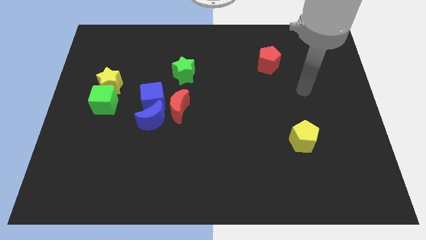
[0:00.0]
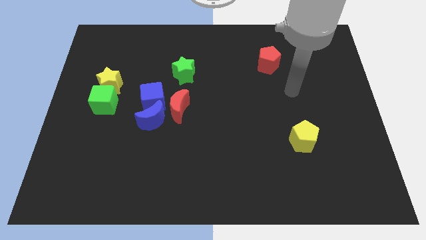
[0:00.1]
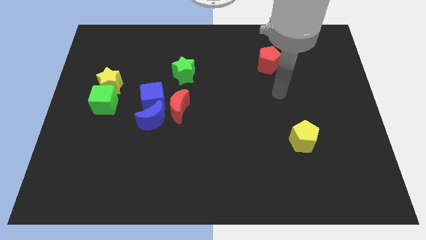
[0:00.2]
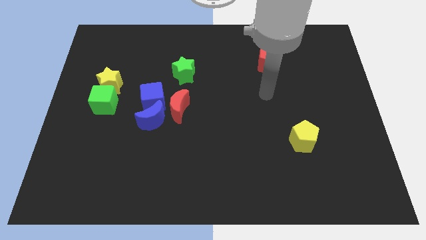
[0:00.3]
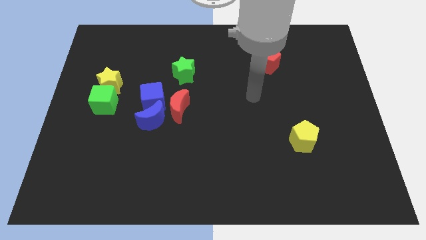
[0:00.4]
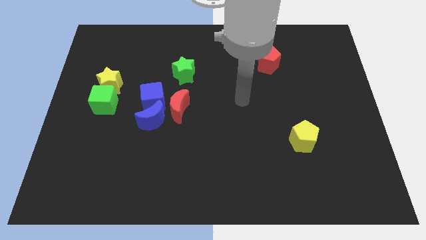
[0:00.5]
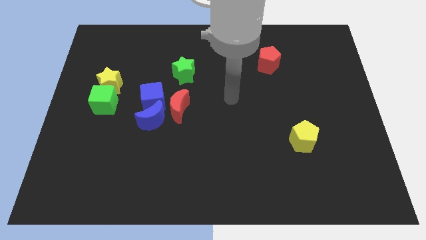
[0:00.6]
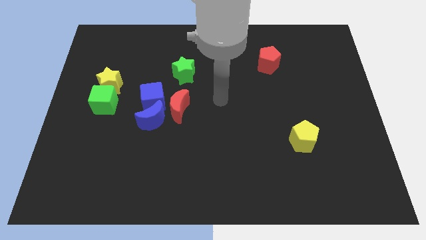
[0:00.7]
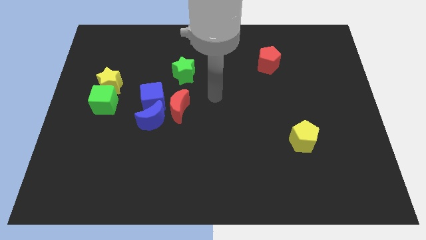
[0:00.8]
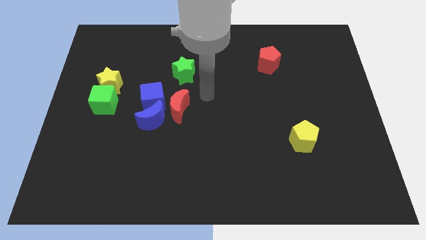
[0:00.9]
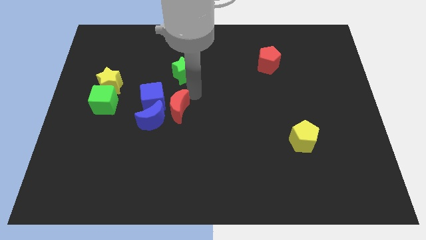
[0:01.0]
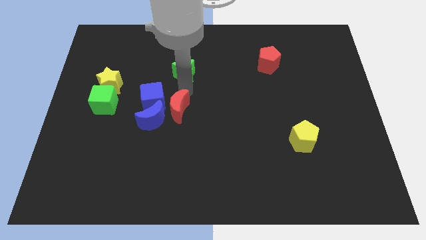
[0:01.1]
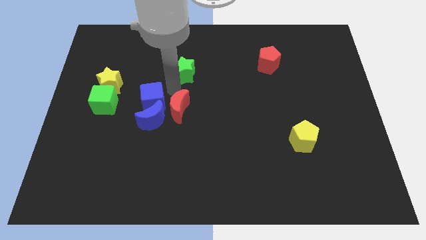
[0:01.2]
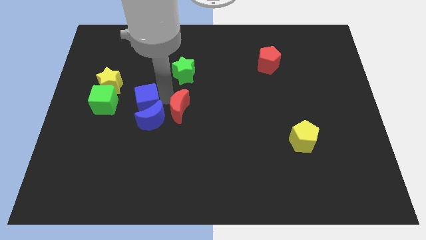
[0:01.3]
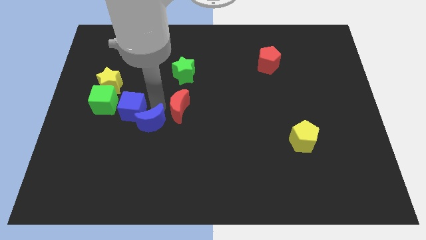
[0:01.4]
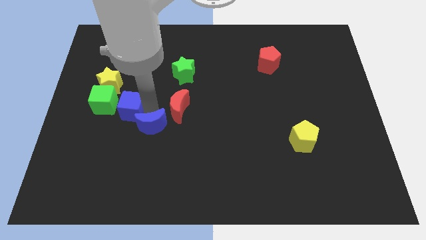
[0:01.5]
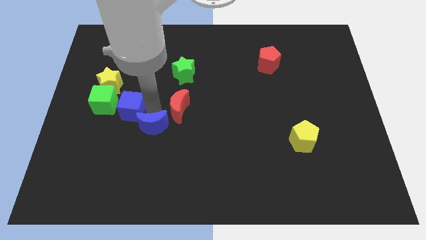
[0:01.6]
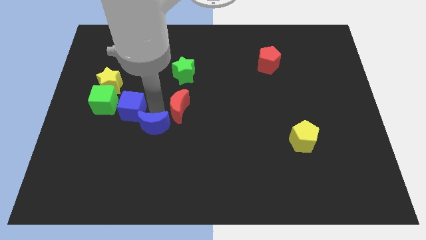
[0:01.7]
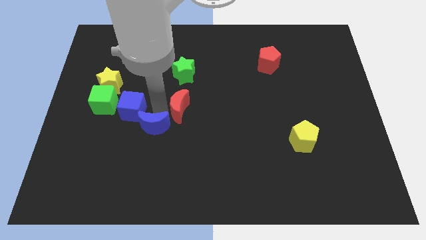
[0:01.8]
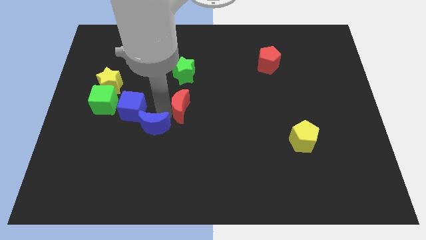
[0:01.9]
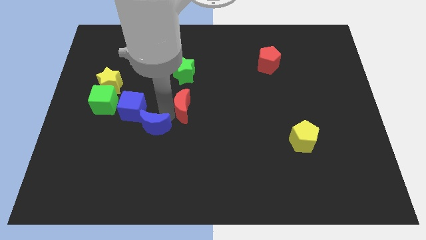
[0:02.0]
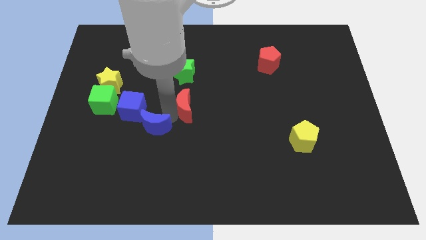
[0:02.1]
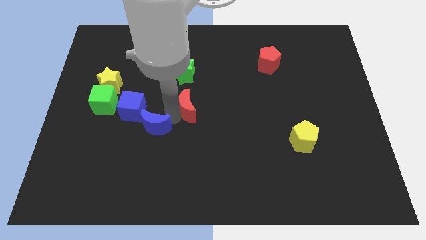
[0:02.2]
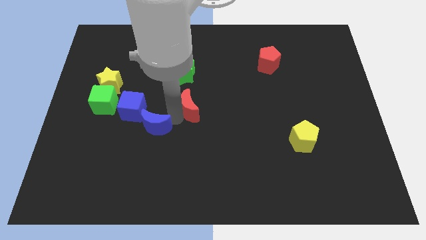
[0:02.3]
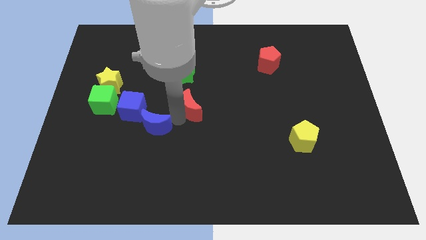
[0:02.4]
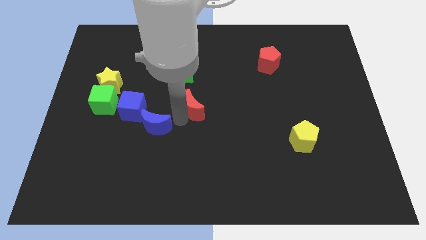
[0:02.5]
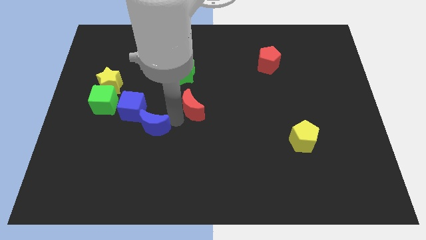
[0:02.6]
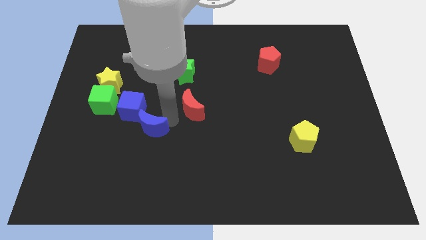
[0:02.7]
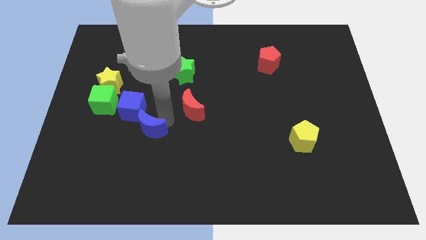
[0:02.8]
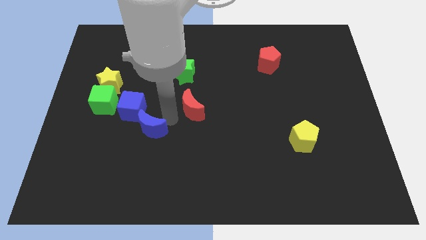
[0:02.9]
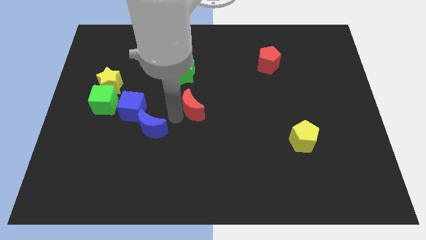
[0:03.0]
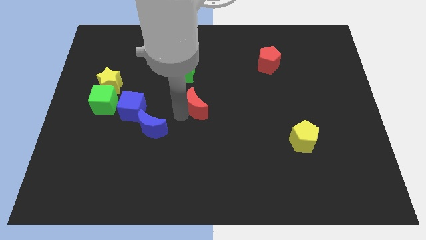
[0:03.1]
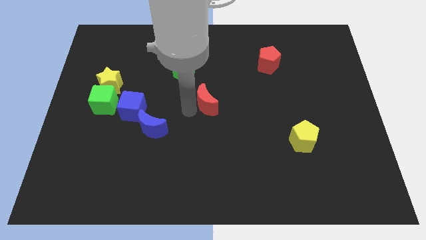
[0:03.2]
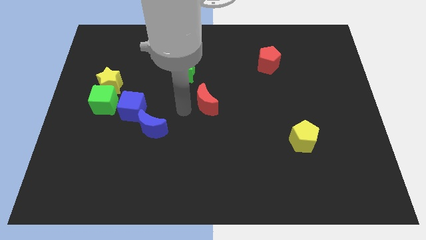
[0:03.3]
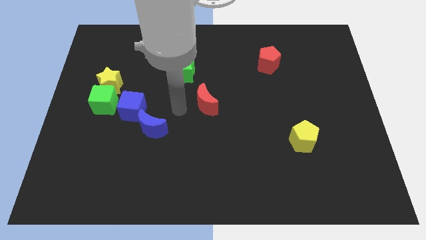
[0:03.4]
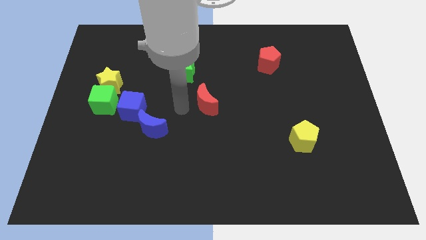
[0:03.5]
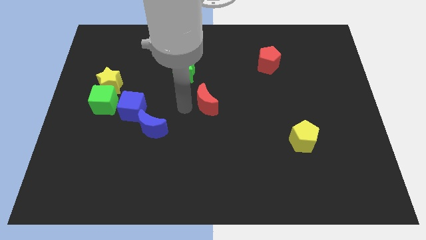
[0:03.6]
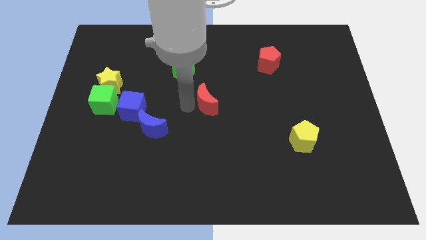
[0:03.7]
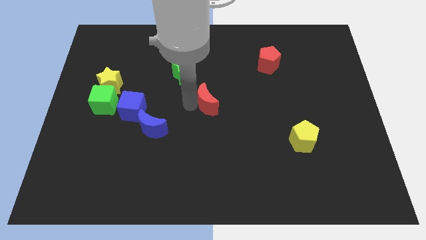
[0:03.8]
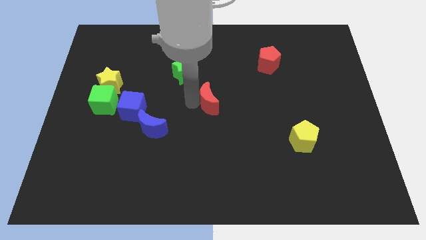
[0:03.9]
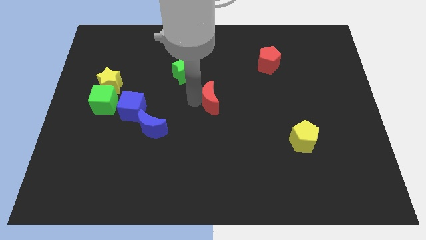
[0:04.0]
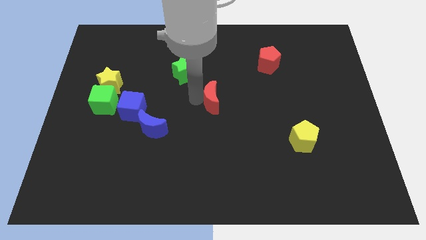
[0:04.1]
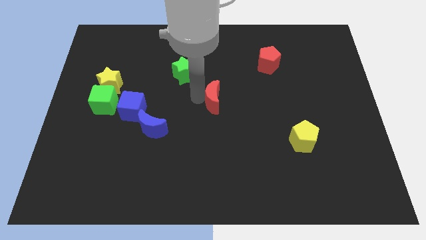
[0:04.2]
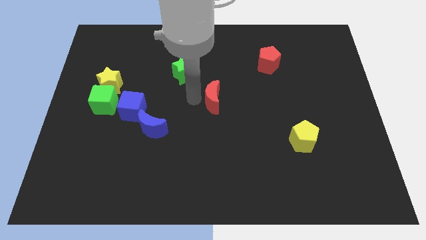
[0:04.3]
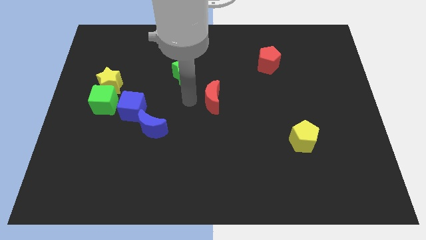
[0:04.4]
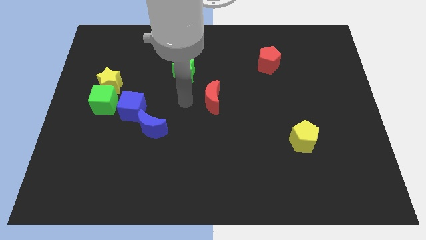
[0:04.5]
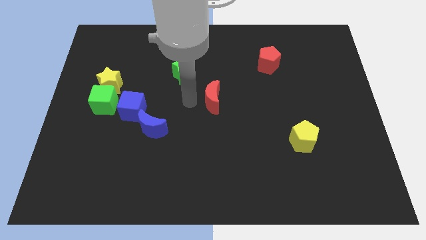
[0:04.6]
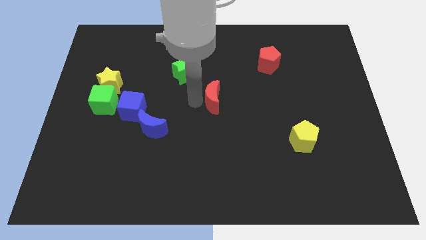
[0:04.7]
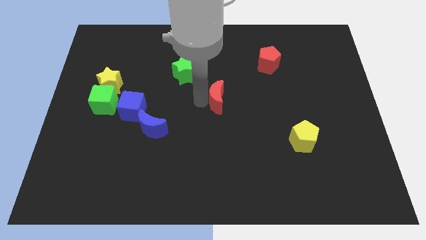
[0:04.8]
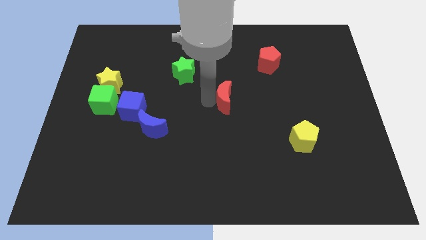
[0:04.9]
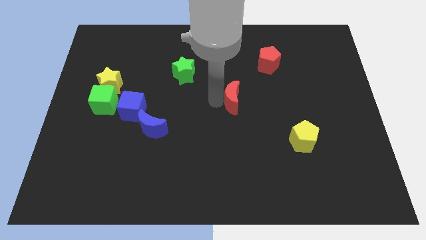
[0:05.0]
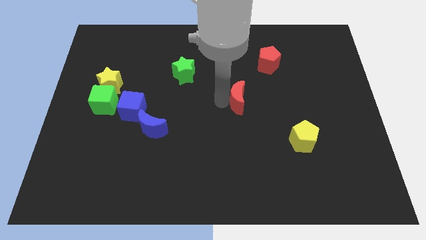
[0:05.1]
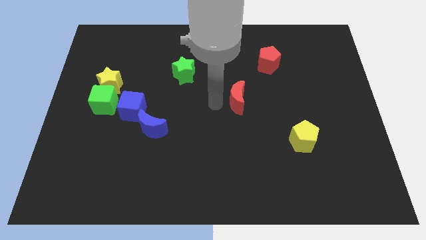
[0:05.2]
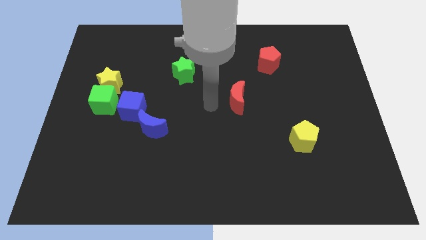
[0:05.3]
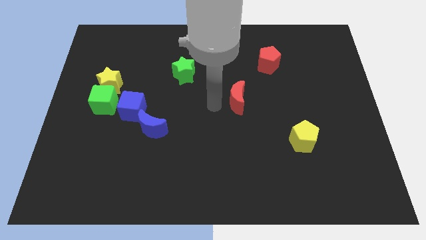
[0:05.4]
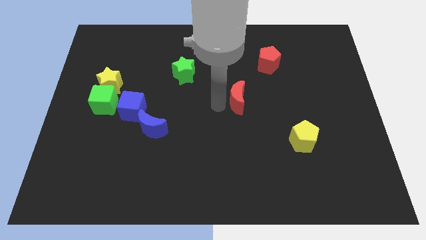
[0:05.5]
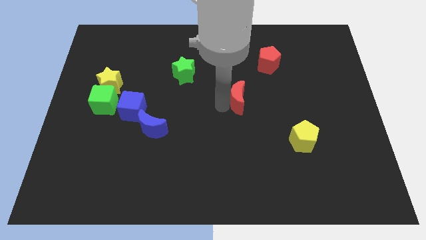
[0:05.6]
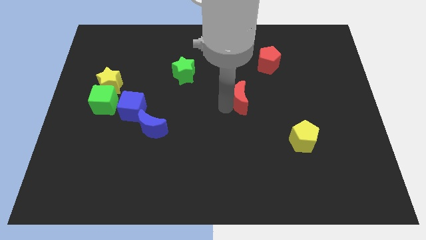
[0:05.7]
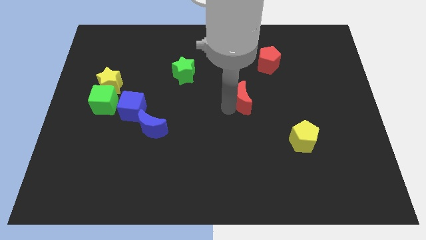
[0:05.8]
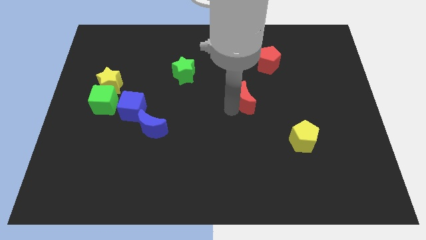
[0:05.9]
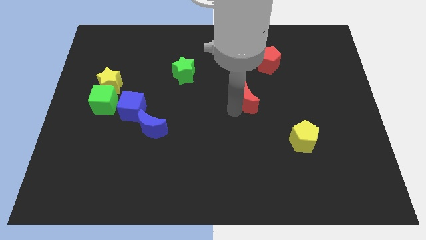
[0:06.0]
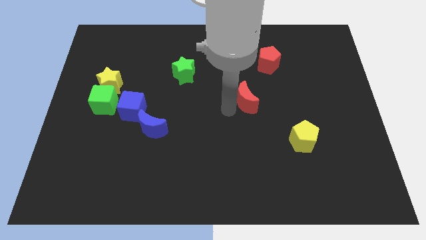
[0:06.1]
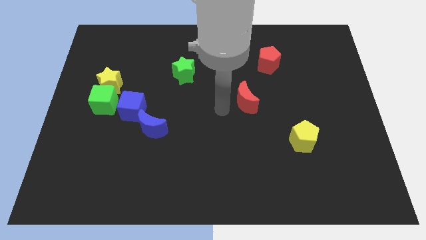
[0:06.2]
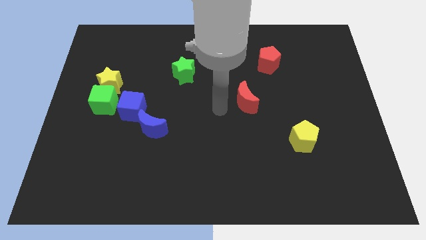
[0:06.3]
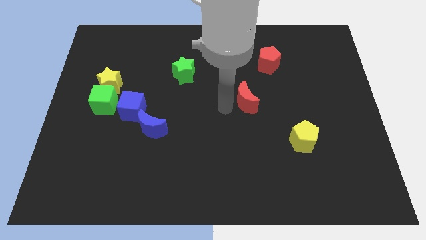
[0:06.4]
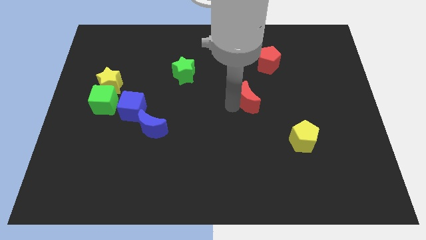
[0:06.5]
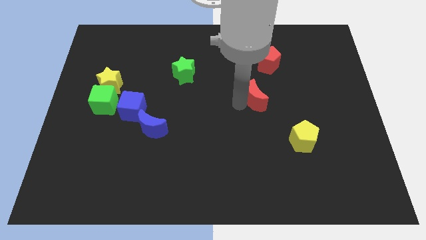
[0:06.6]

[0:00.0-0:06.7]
slide the red moon to the bottom of the red pentagon

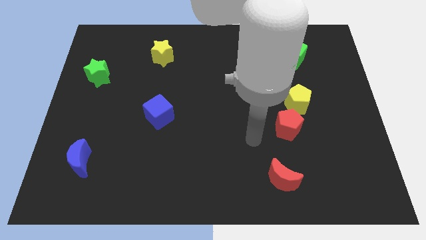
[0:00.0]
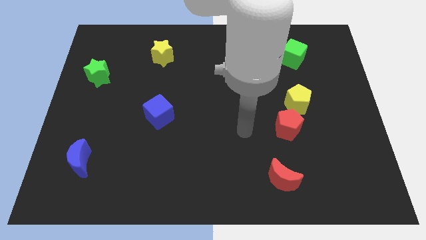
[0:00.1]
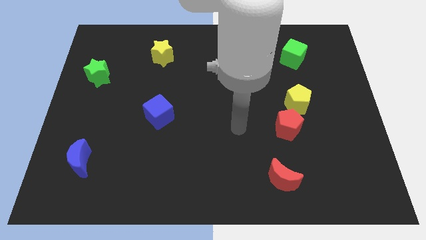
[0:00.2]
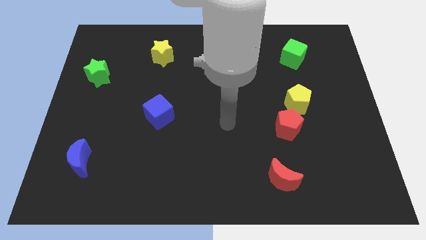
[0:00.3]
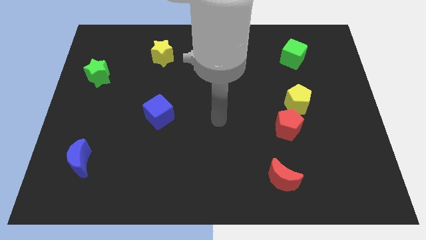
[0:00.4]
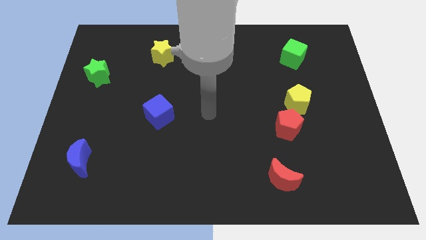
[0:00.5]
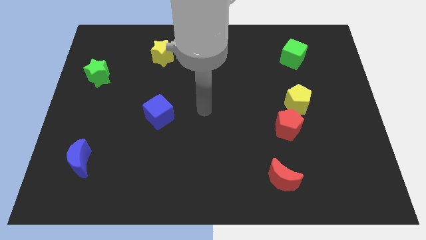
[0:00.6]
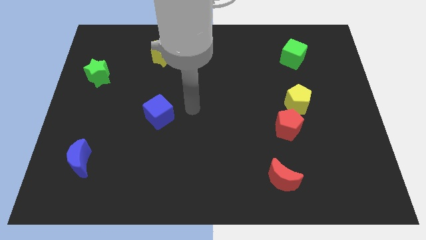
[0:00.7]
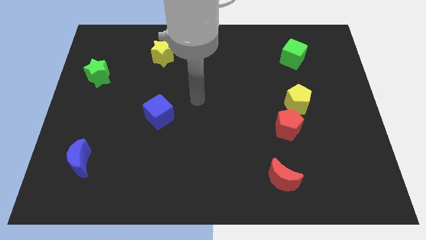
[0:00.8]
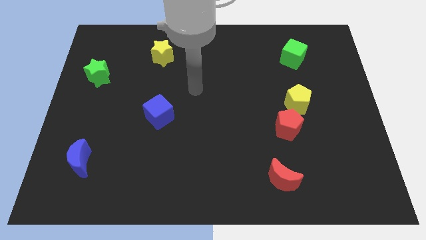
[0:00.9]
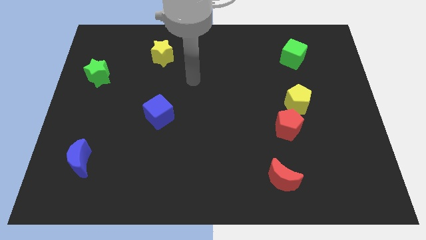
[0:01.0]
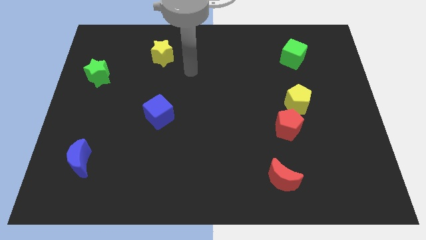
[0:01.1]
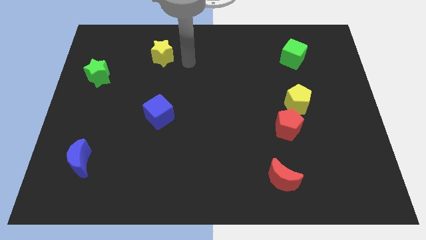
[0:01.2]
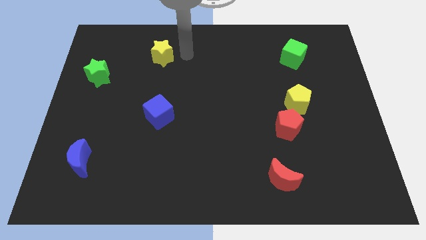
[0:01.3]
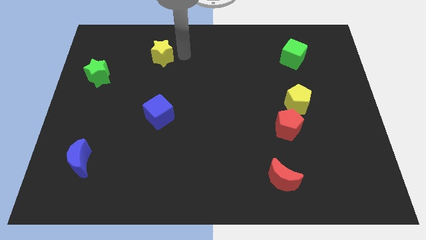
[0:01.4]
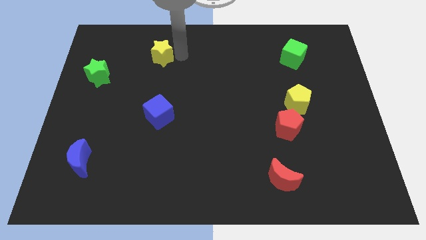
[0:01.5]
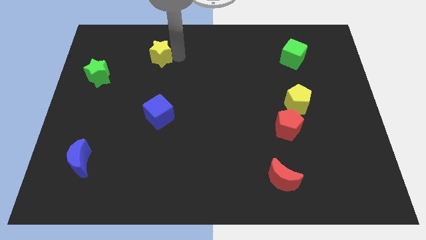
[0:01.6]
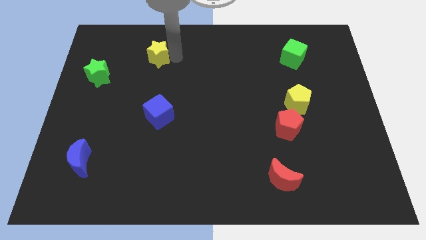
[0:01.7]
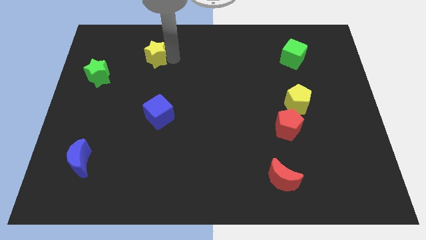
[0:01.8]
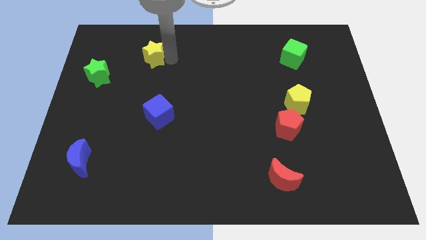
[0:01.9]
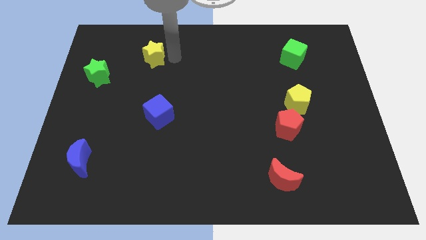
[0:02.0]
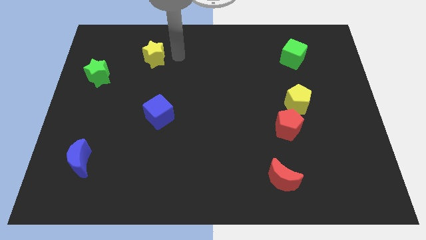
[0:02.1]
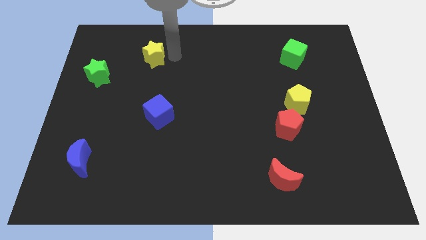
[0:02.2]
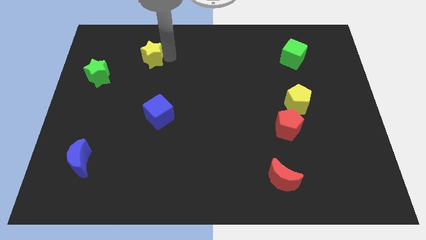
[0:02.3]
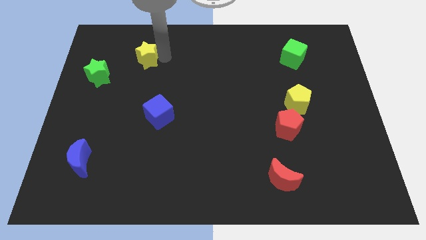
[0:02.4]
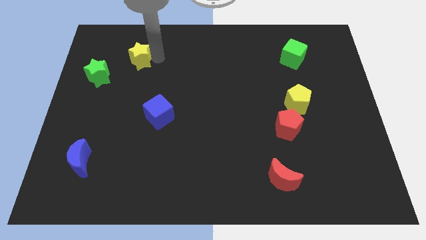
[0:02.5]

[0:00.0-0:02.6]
slide the yellow star diagonally up and to the right of the green star
